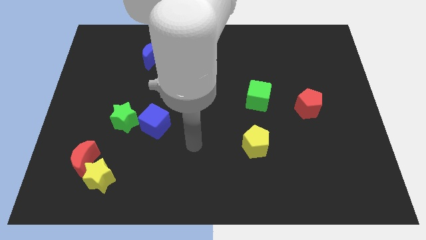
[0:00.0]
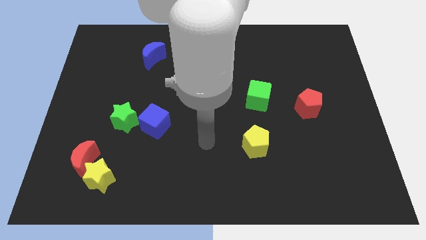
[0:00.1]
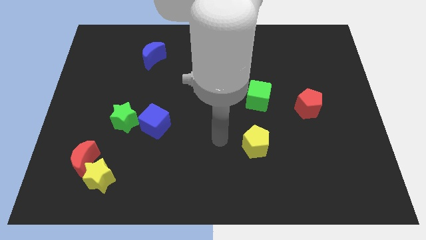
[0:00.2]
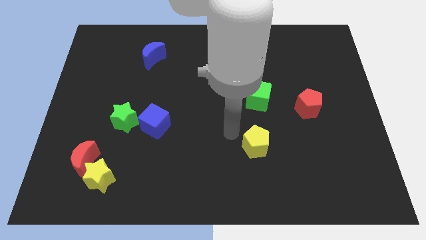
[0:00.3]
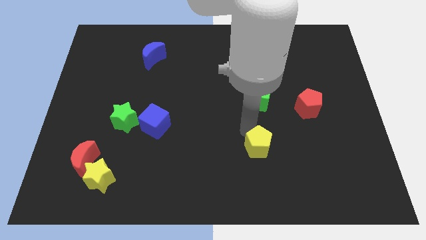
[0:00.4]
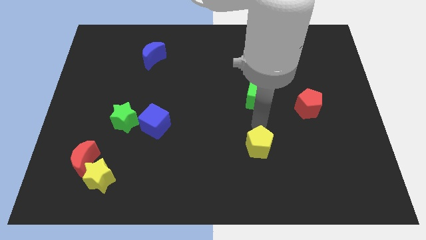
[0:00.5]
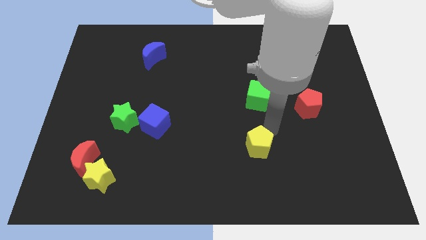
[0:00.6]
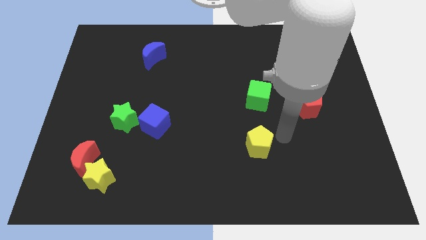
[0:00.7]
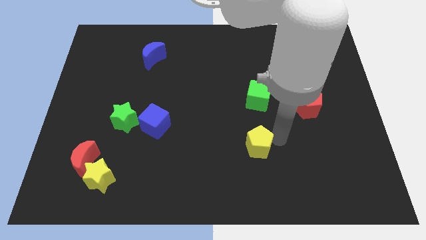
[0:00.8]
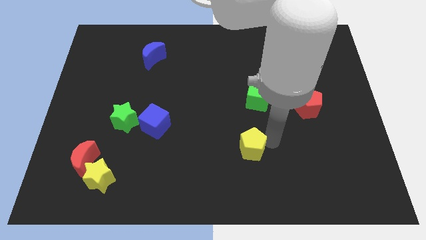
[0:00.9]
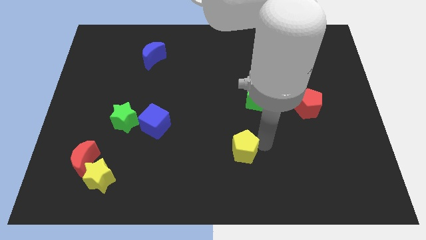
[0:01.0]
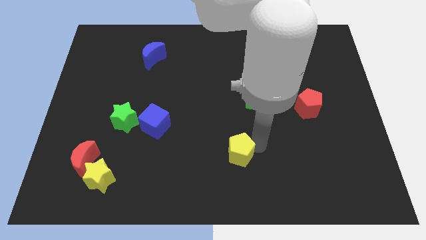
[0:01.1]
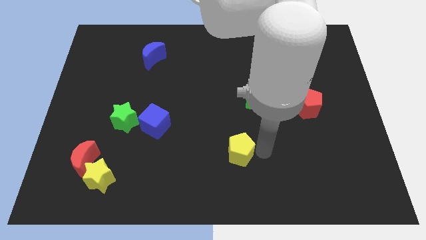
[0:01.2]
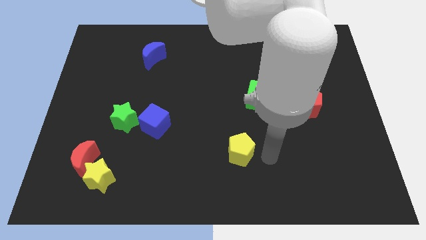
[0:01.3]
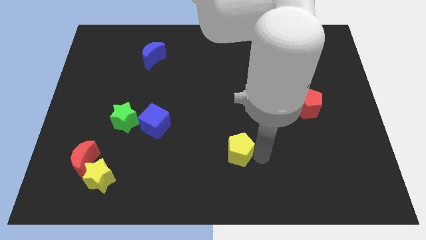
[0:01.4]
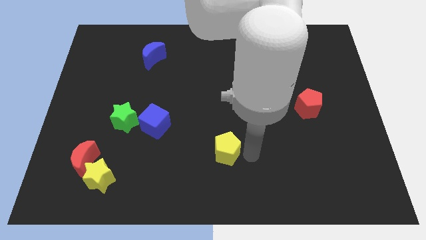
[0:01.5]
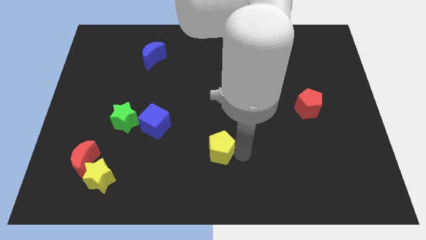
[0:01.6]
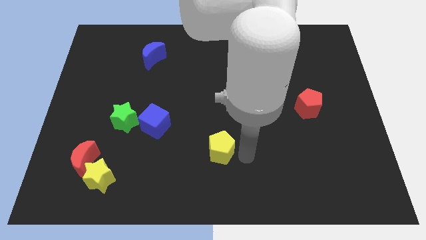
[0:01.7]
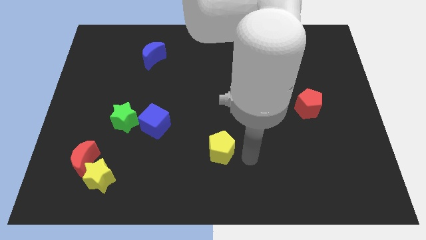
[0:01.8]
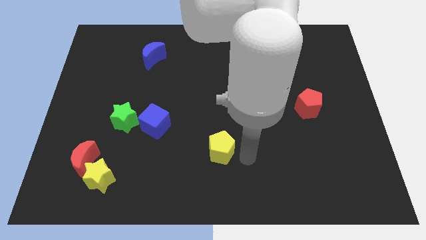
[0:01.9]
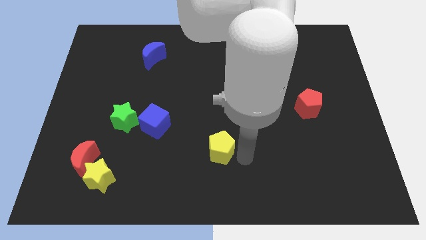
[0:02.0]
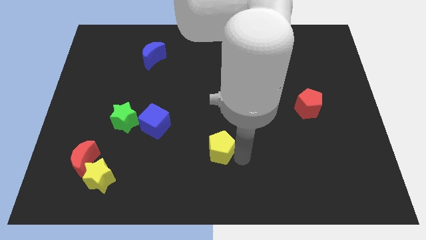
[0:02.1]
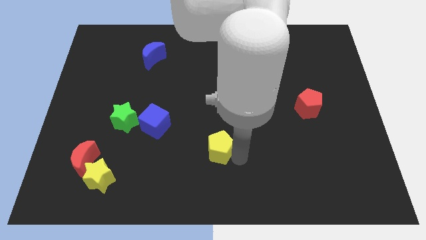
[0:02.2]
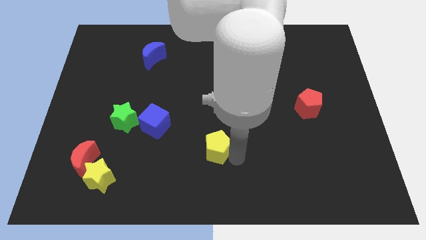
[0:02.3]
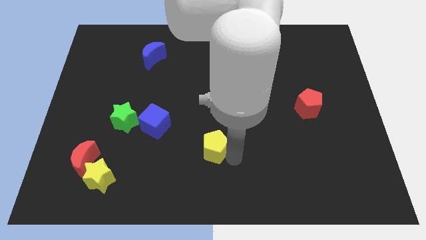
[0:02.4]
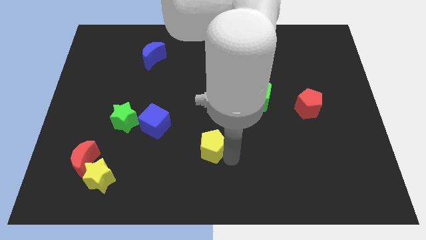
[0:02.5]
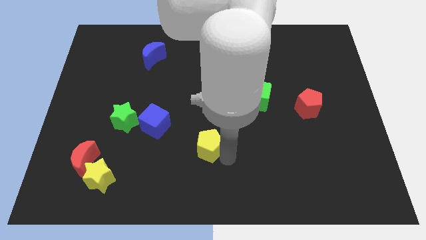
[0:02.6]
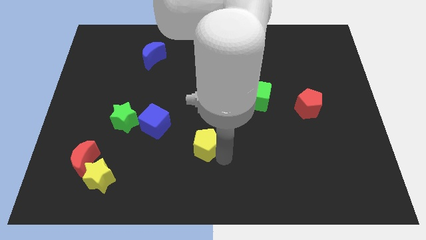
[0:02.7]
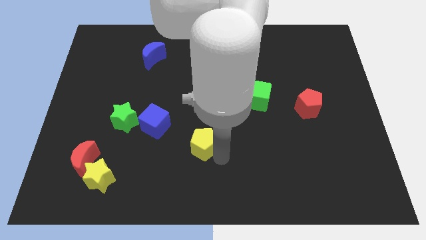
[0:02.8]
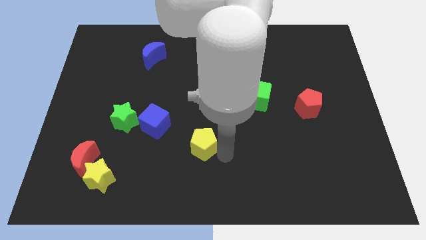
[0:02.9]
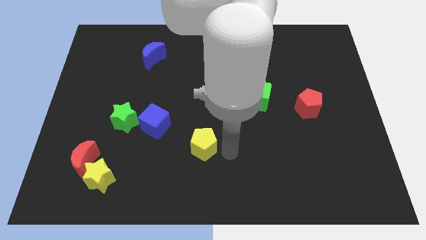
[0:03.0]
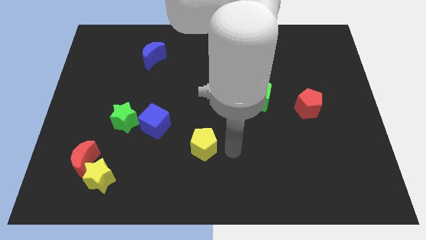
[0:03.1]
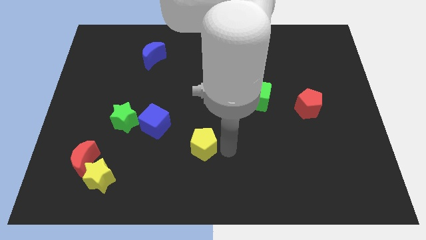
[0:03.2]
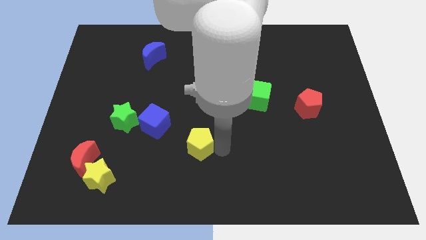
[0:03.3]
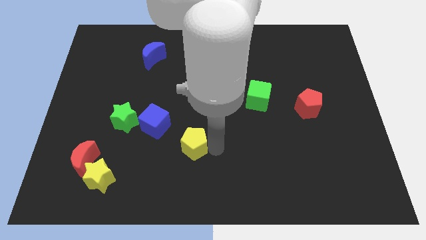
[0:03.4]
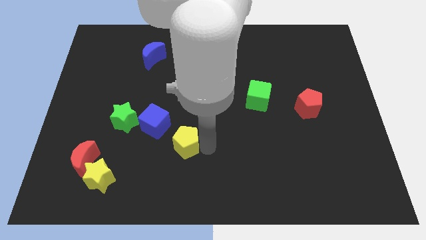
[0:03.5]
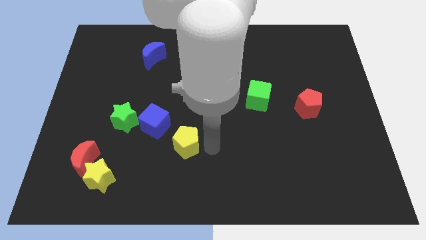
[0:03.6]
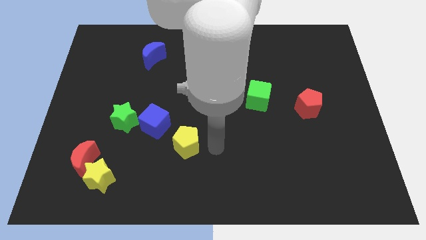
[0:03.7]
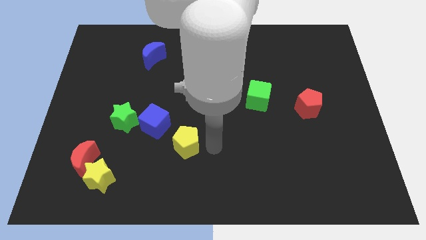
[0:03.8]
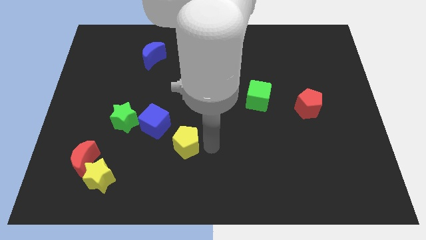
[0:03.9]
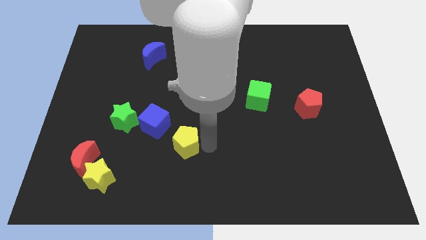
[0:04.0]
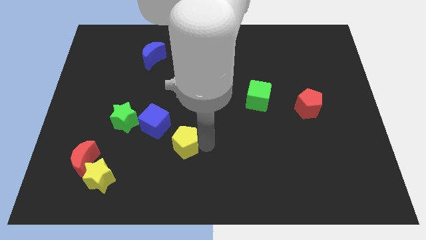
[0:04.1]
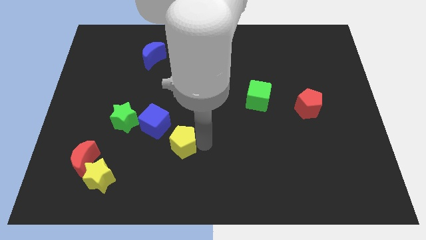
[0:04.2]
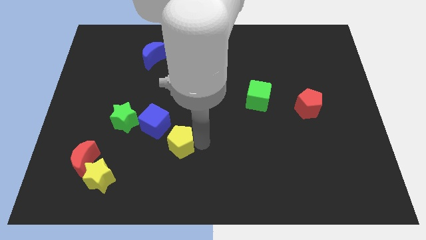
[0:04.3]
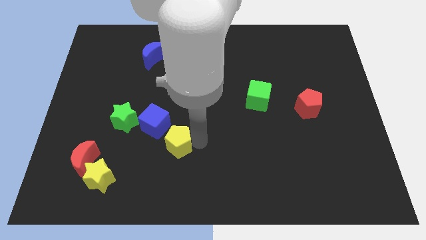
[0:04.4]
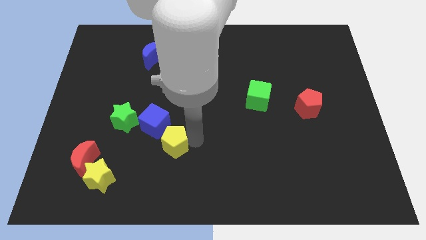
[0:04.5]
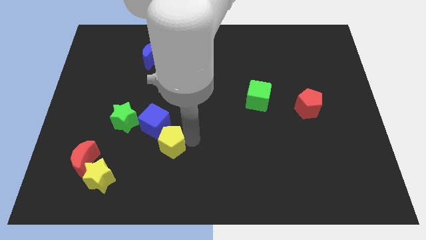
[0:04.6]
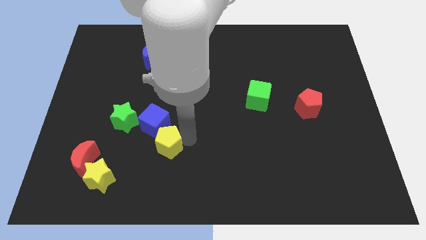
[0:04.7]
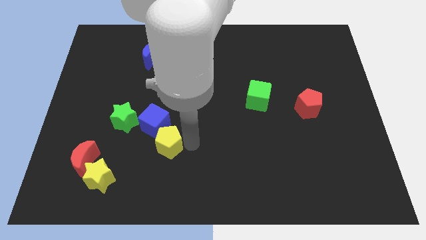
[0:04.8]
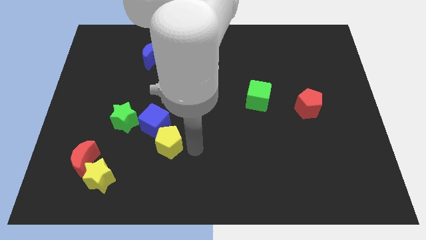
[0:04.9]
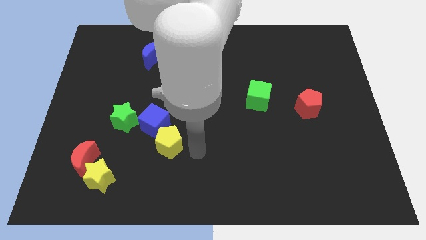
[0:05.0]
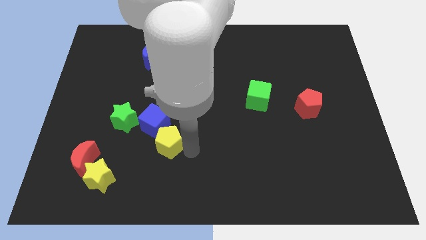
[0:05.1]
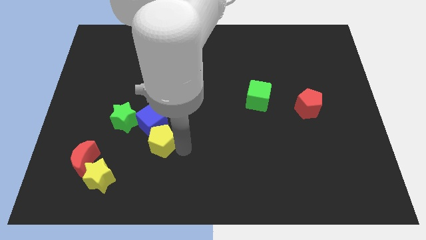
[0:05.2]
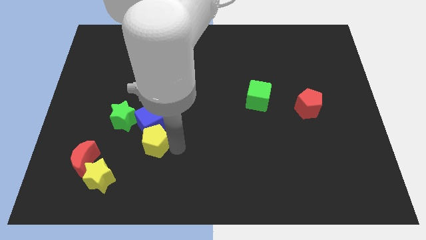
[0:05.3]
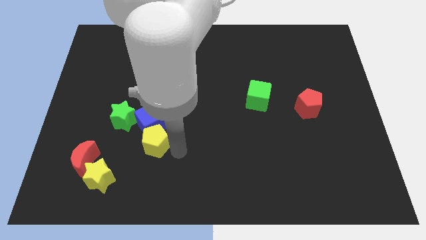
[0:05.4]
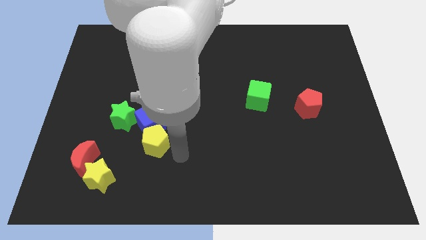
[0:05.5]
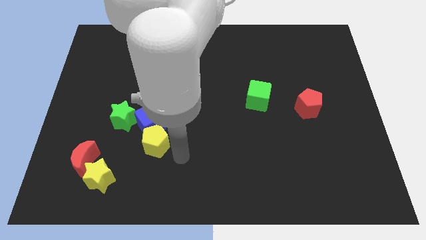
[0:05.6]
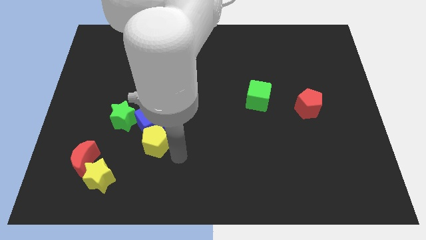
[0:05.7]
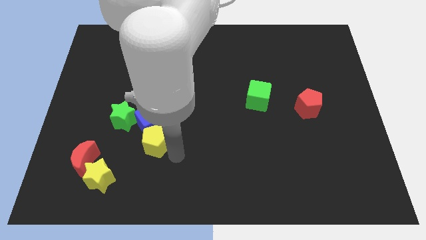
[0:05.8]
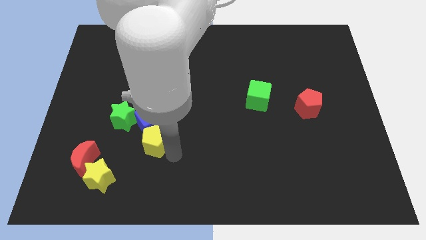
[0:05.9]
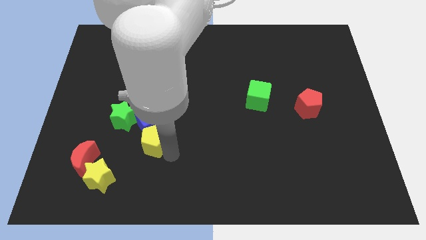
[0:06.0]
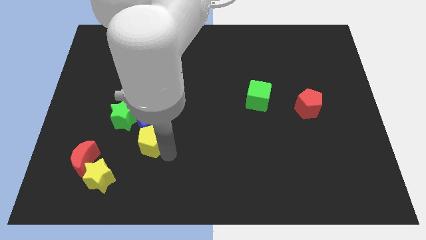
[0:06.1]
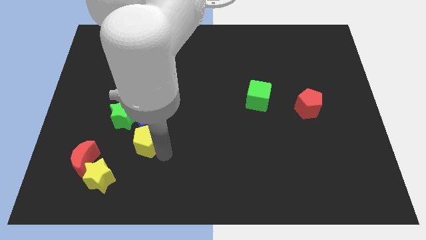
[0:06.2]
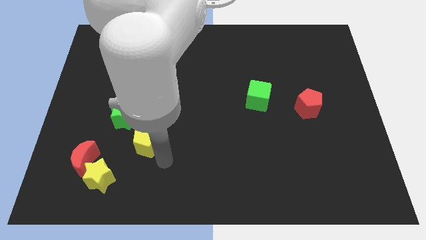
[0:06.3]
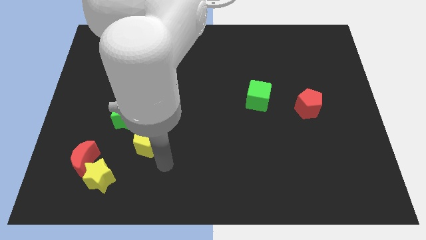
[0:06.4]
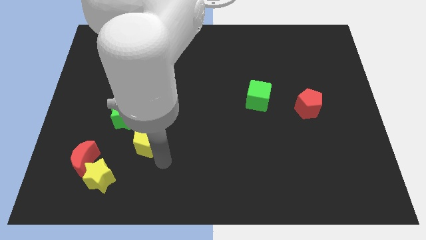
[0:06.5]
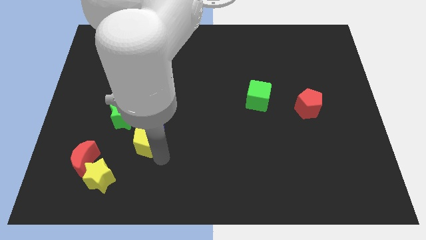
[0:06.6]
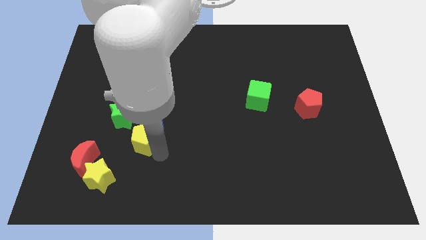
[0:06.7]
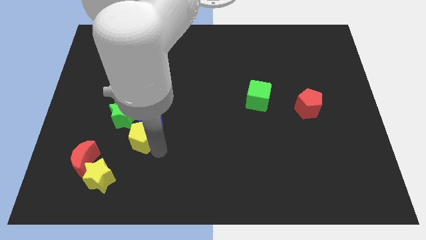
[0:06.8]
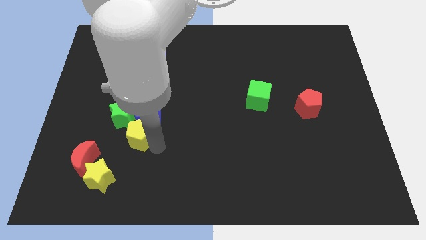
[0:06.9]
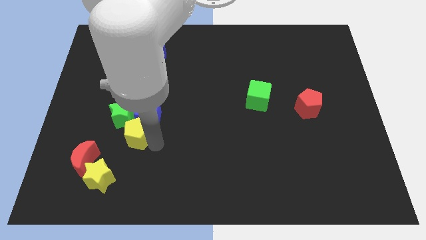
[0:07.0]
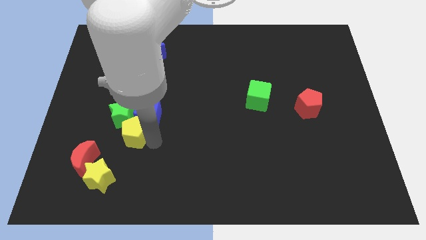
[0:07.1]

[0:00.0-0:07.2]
slide the yellow pentagon to the green star

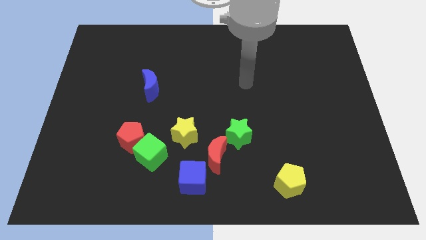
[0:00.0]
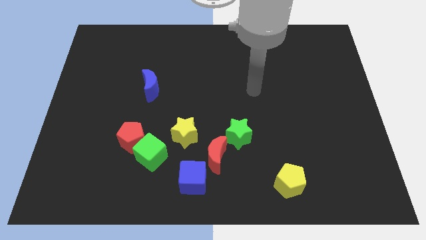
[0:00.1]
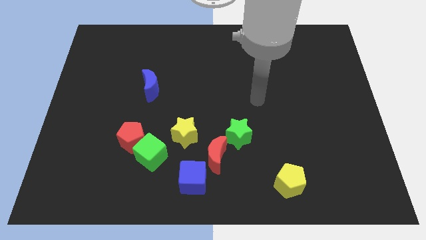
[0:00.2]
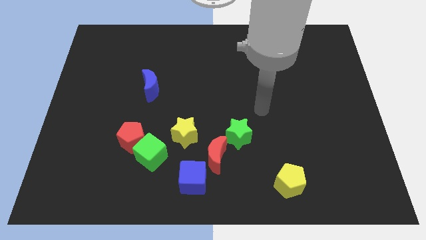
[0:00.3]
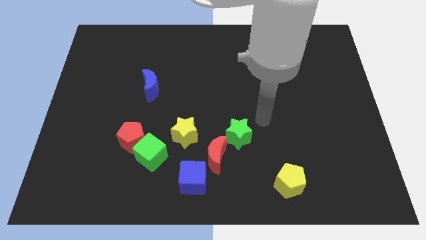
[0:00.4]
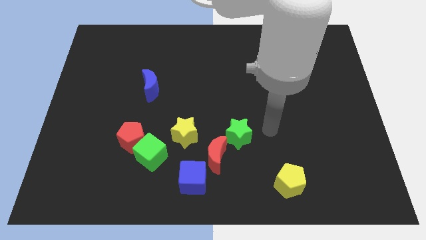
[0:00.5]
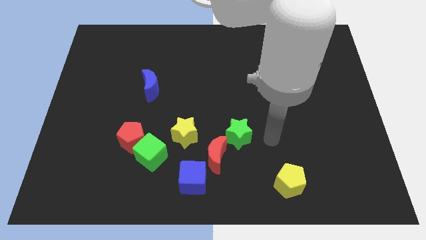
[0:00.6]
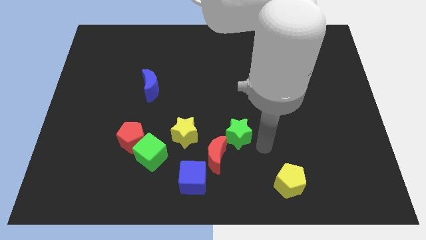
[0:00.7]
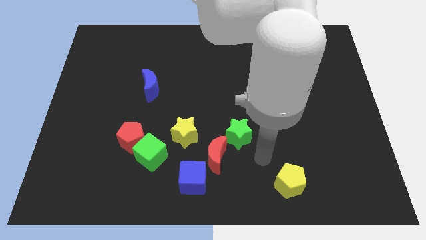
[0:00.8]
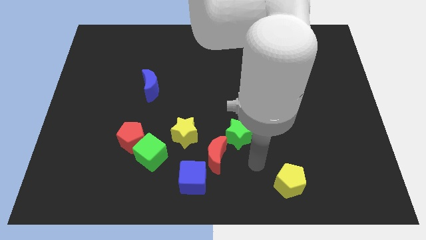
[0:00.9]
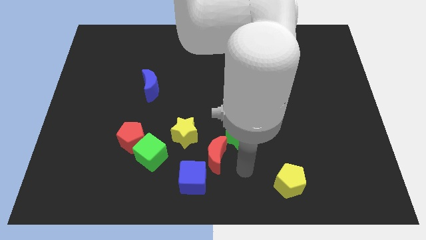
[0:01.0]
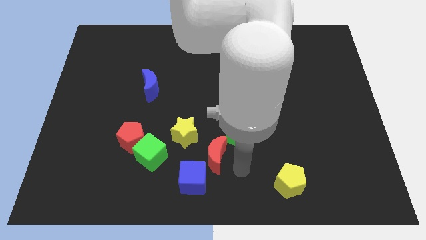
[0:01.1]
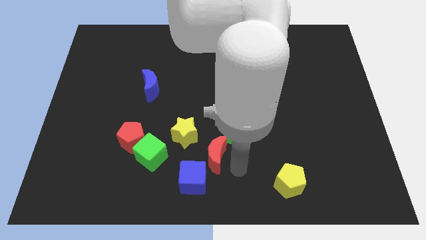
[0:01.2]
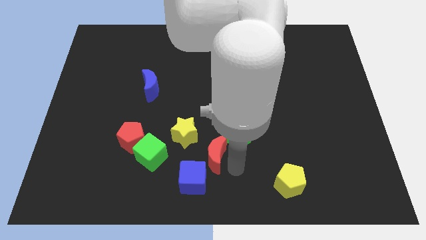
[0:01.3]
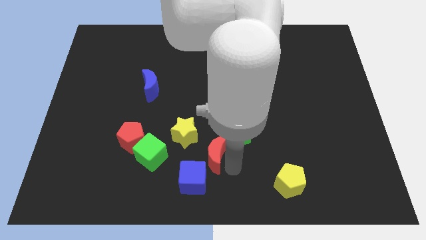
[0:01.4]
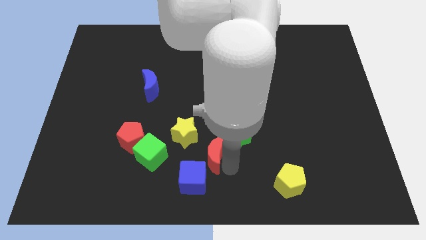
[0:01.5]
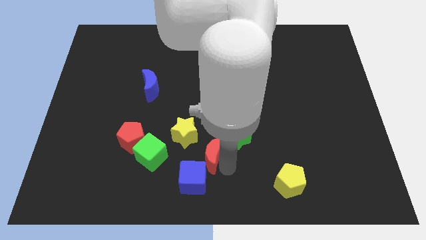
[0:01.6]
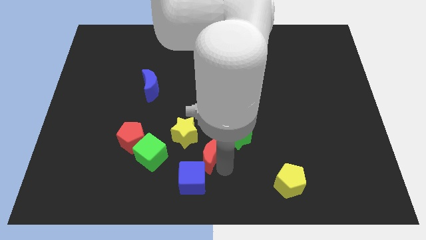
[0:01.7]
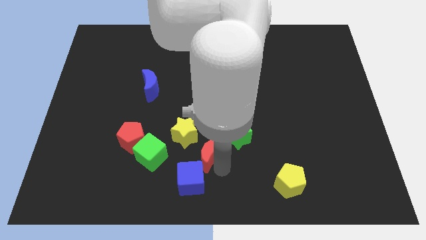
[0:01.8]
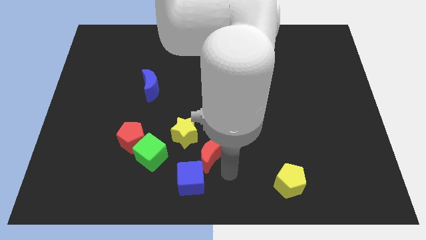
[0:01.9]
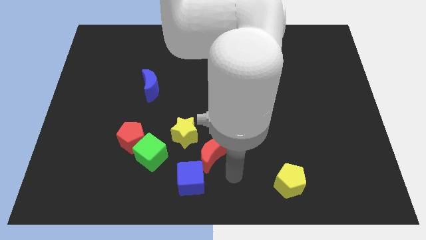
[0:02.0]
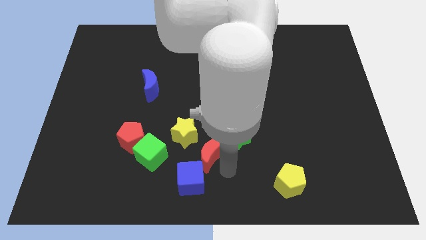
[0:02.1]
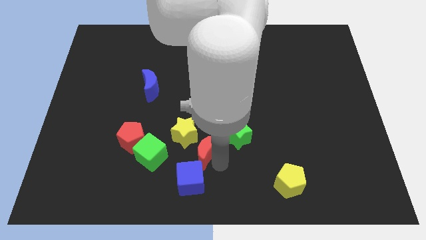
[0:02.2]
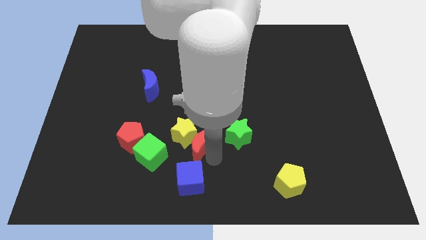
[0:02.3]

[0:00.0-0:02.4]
move the red moon to the yellow star
